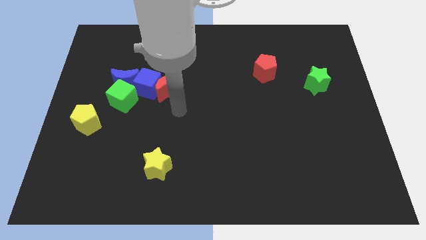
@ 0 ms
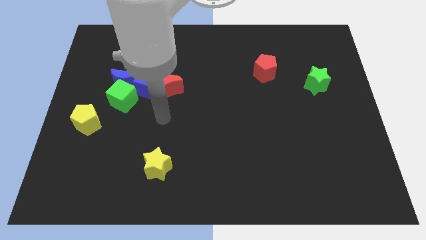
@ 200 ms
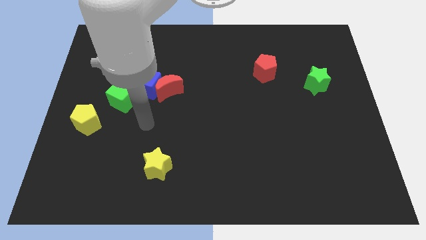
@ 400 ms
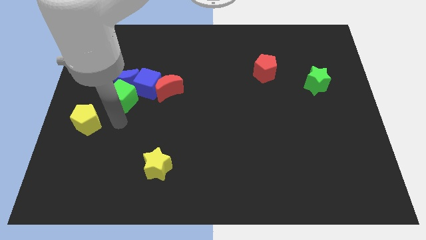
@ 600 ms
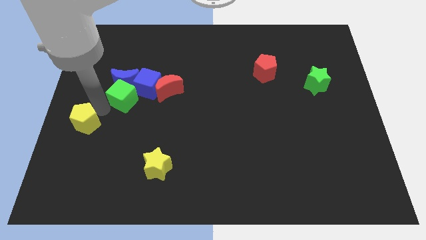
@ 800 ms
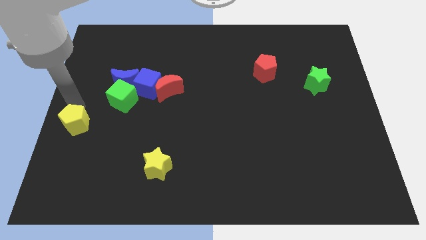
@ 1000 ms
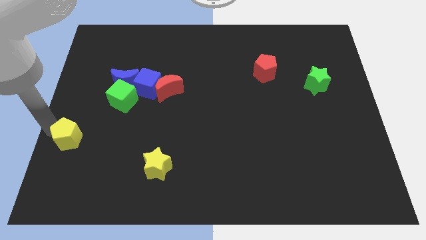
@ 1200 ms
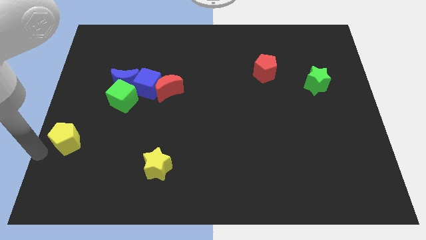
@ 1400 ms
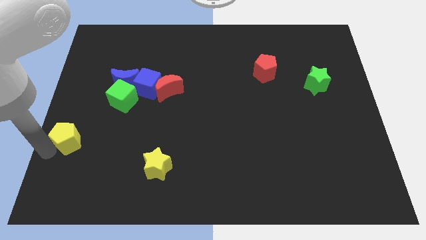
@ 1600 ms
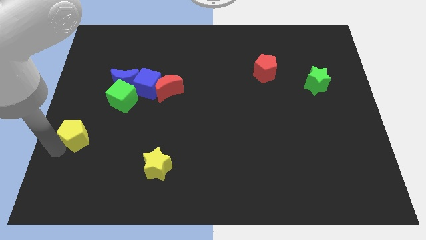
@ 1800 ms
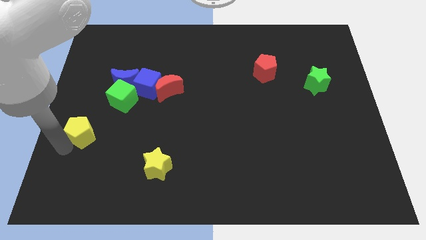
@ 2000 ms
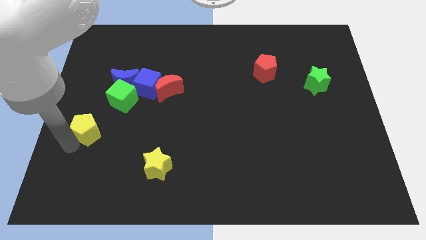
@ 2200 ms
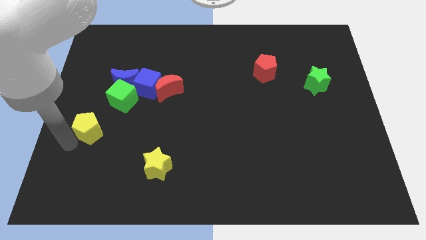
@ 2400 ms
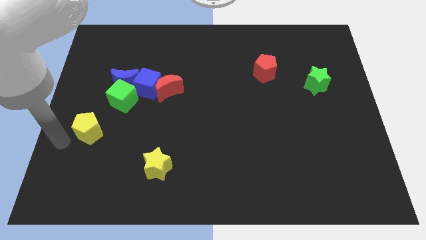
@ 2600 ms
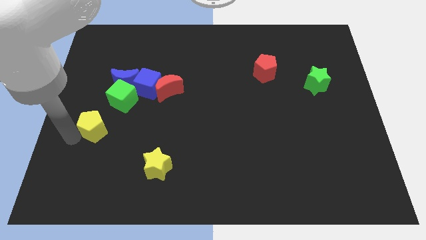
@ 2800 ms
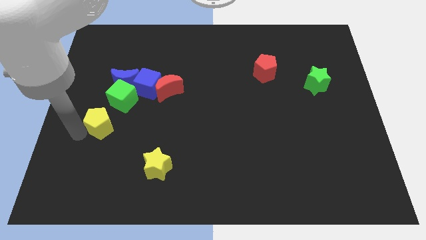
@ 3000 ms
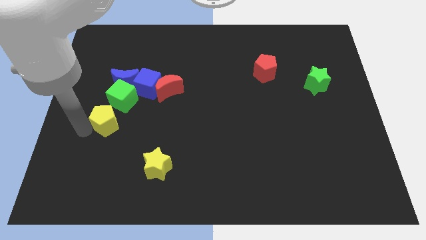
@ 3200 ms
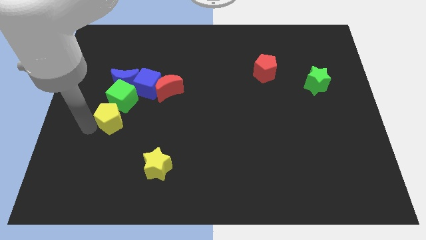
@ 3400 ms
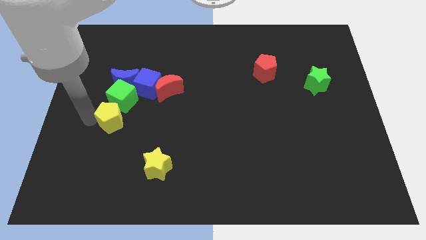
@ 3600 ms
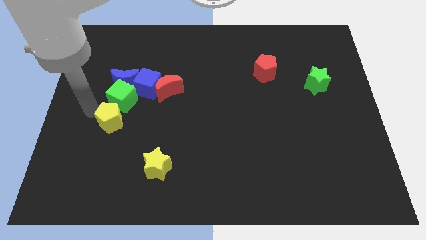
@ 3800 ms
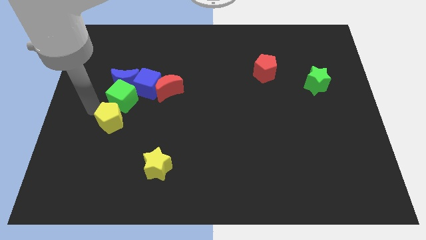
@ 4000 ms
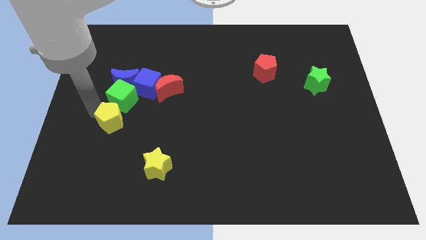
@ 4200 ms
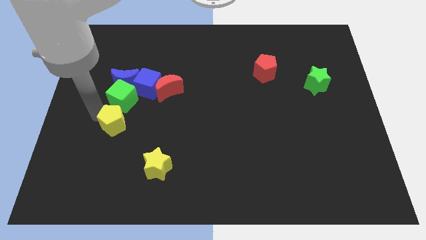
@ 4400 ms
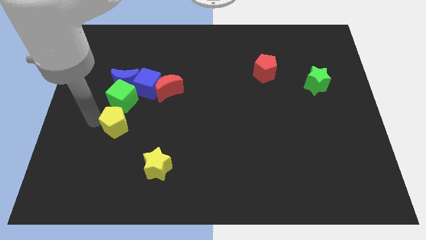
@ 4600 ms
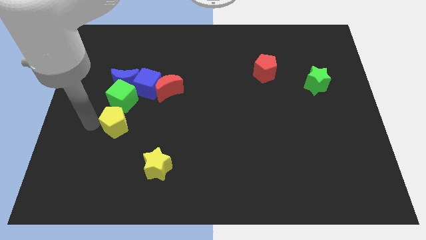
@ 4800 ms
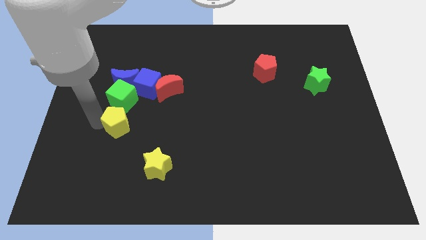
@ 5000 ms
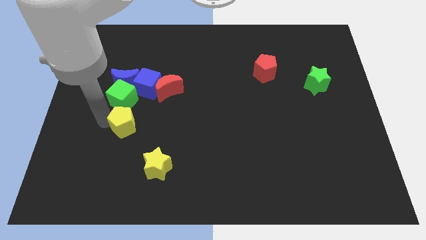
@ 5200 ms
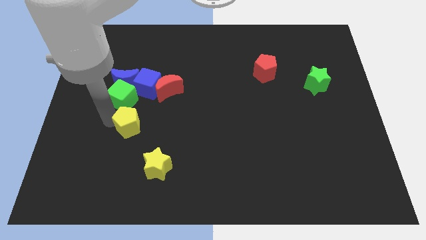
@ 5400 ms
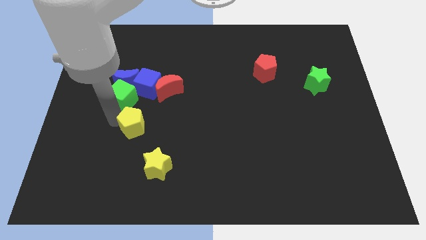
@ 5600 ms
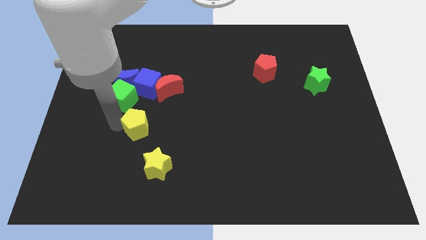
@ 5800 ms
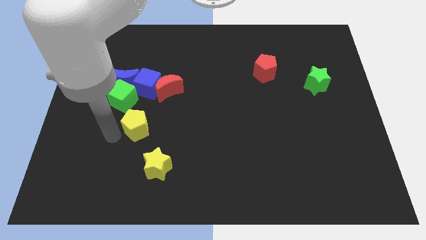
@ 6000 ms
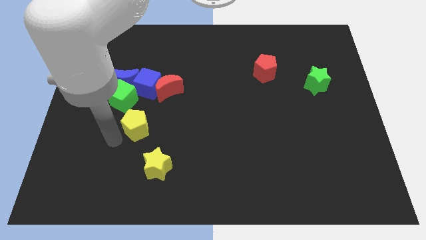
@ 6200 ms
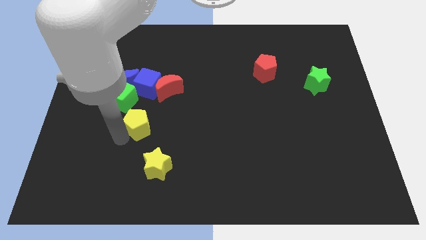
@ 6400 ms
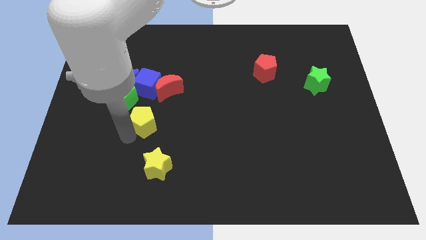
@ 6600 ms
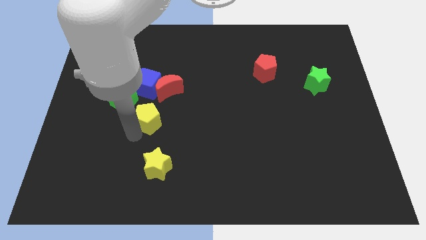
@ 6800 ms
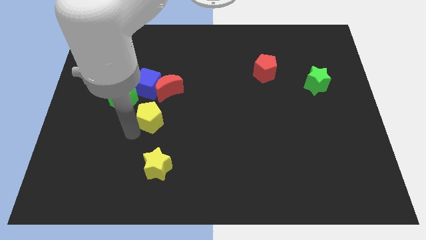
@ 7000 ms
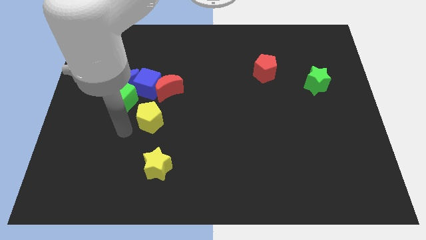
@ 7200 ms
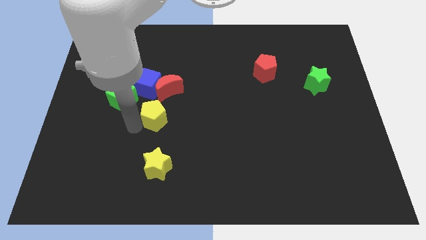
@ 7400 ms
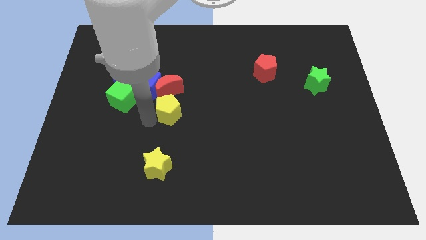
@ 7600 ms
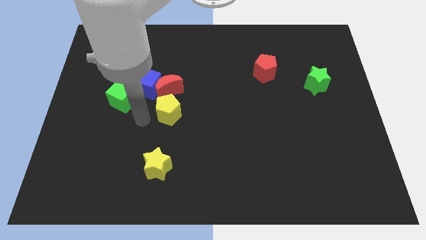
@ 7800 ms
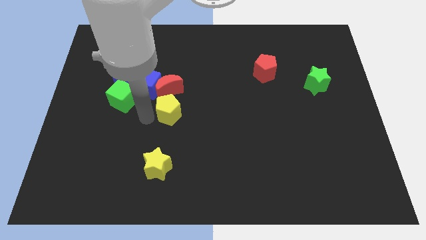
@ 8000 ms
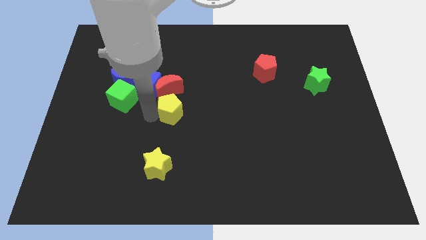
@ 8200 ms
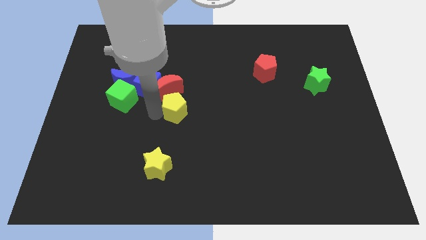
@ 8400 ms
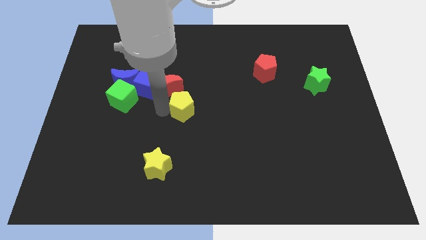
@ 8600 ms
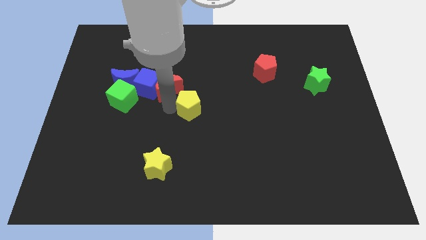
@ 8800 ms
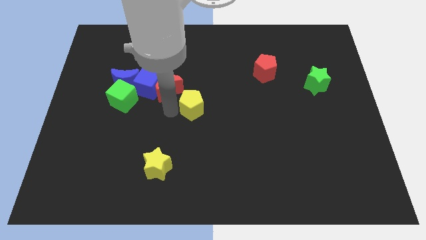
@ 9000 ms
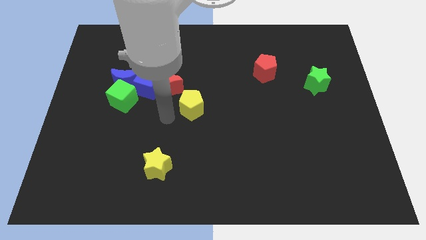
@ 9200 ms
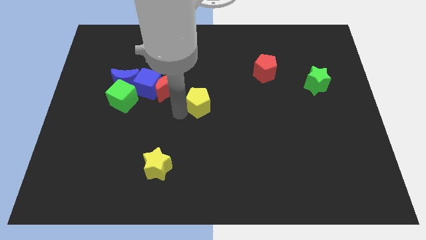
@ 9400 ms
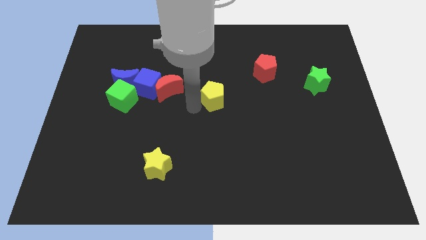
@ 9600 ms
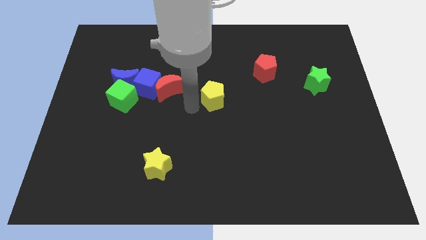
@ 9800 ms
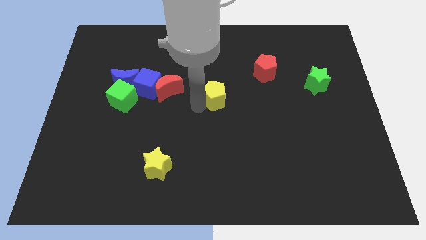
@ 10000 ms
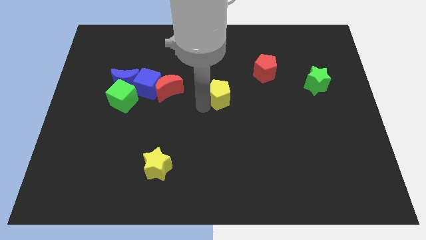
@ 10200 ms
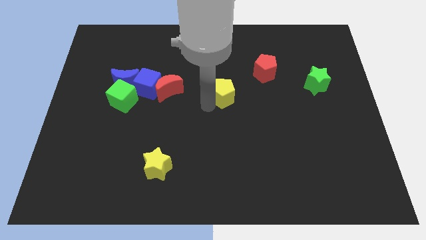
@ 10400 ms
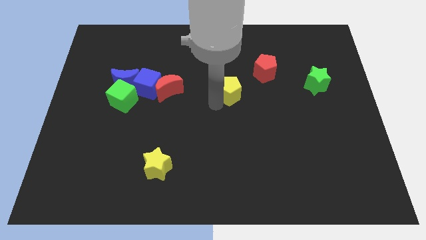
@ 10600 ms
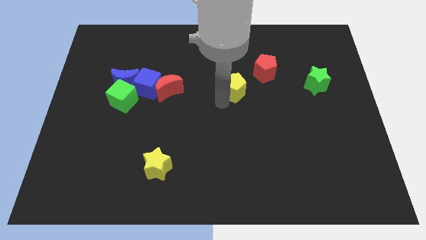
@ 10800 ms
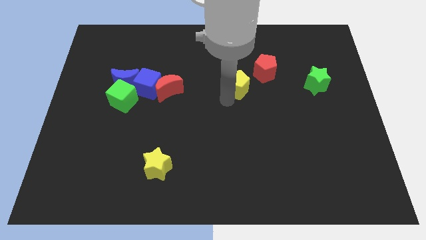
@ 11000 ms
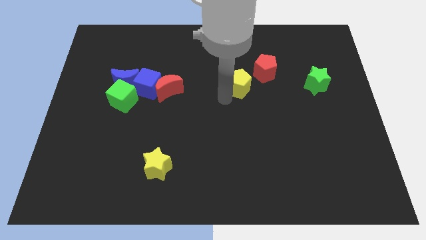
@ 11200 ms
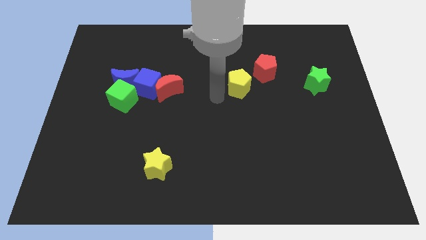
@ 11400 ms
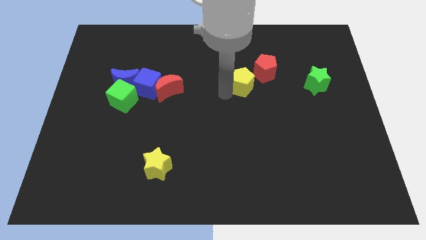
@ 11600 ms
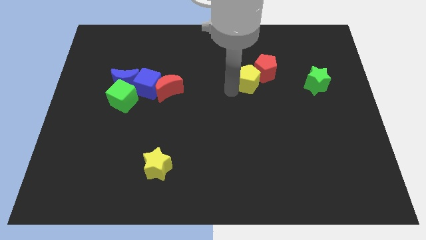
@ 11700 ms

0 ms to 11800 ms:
put the yellow pentagon towards the red pentagon

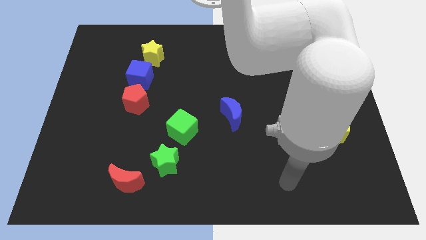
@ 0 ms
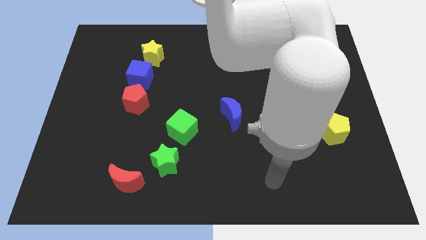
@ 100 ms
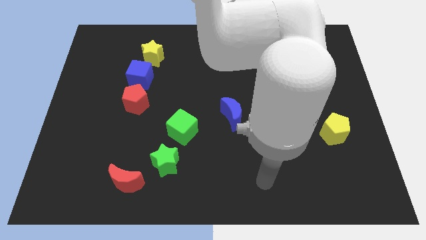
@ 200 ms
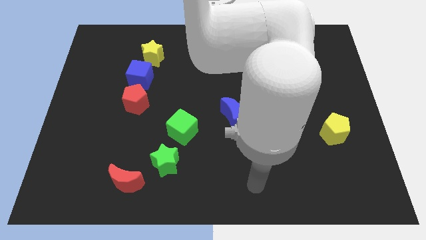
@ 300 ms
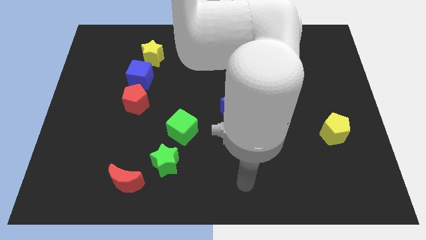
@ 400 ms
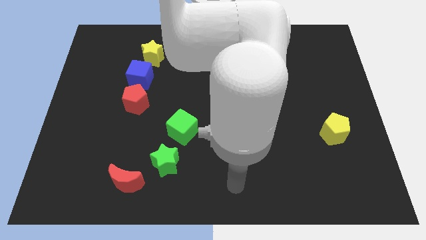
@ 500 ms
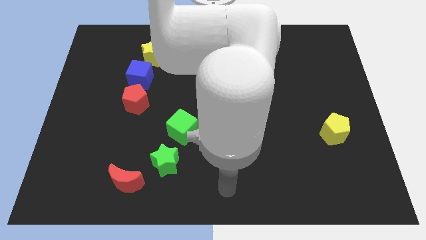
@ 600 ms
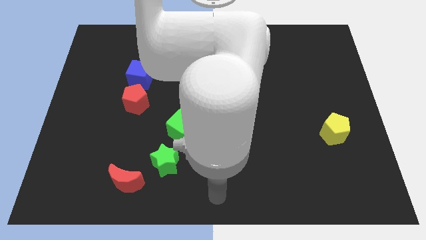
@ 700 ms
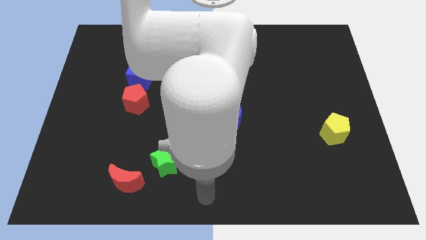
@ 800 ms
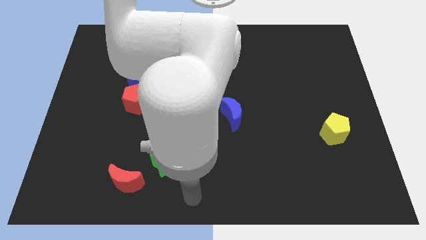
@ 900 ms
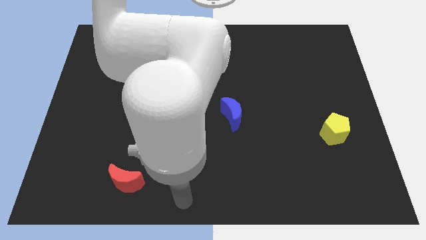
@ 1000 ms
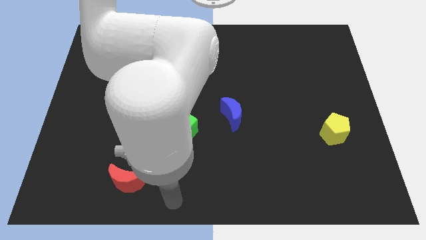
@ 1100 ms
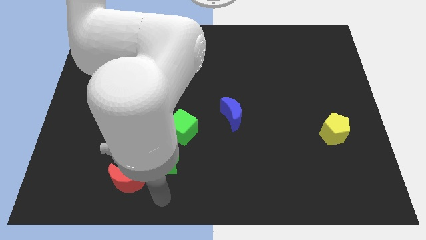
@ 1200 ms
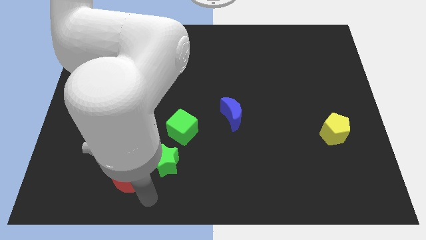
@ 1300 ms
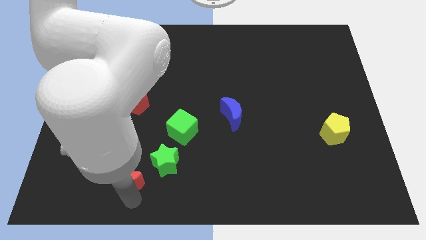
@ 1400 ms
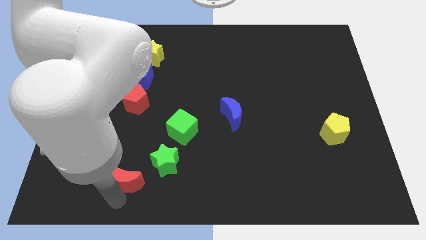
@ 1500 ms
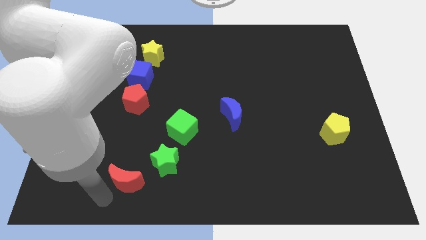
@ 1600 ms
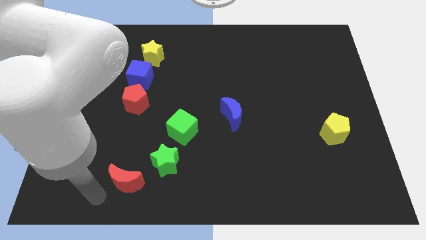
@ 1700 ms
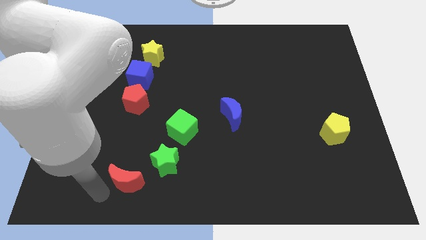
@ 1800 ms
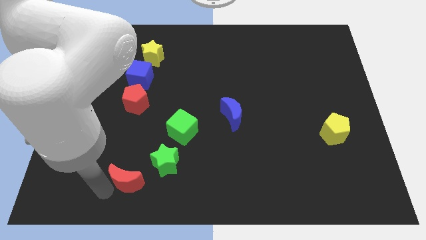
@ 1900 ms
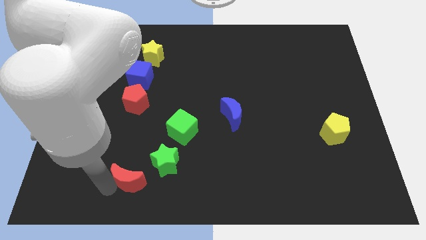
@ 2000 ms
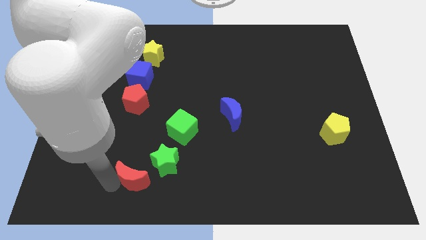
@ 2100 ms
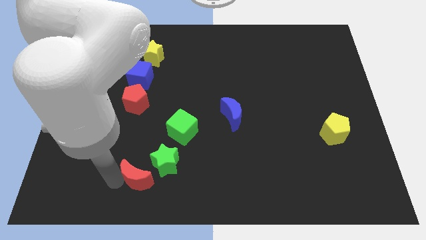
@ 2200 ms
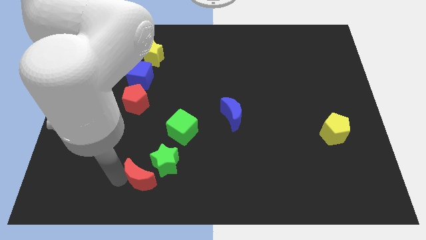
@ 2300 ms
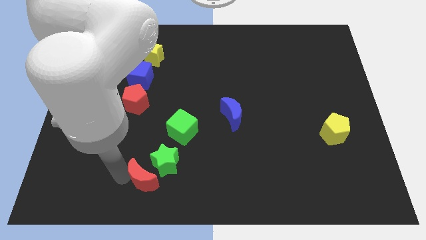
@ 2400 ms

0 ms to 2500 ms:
slide the red moon to the green star
